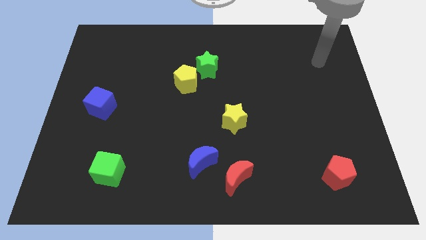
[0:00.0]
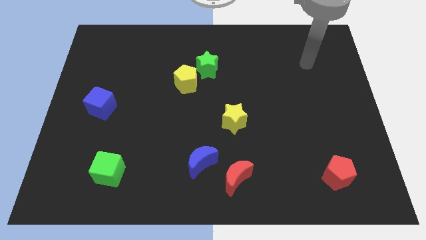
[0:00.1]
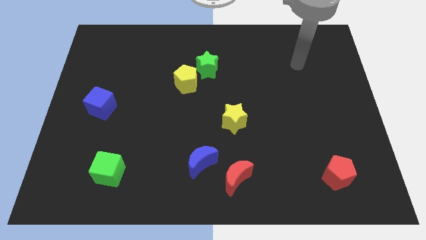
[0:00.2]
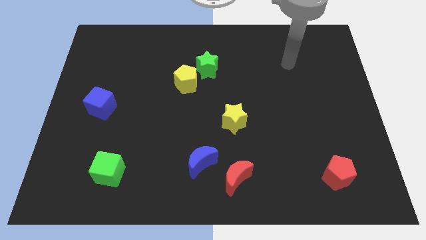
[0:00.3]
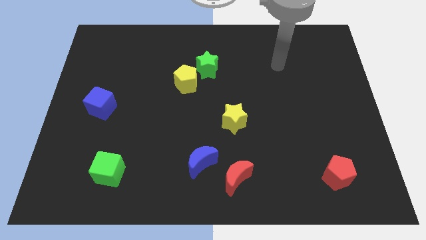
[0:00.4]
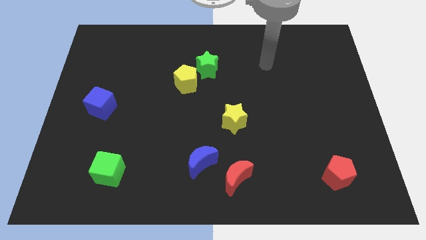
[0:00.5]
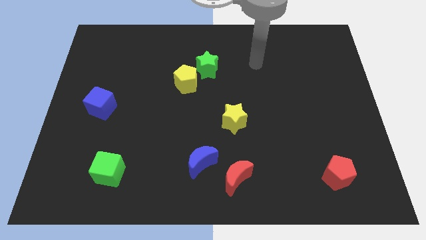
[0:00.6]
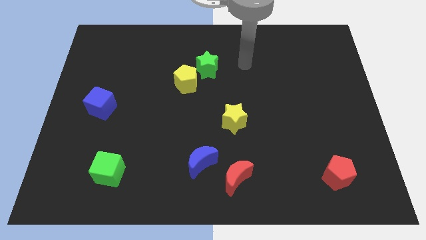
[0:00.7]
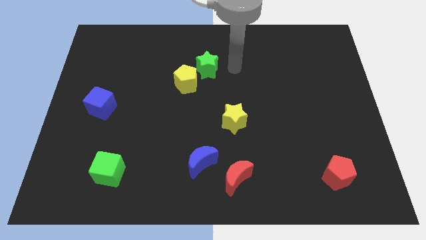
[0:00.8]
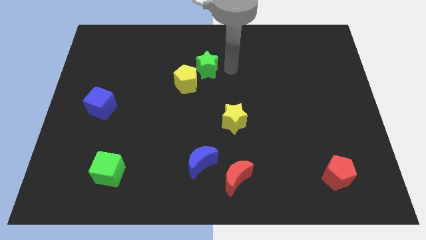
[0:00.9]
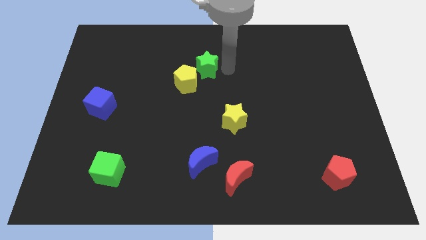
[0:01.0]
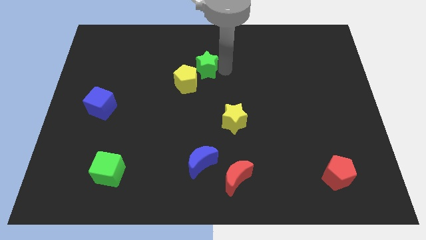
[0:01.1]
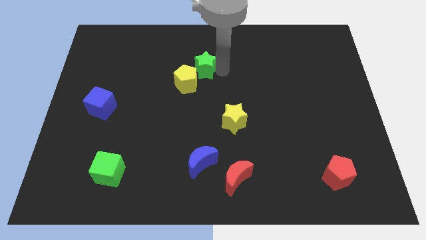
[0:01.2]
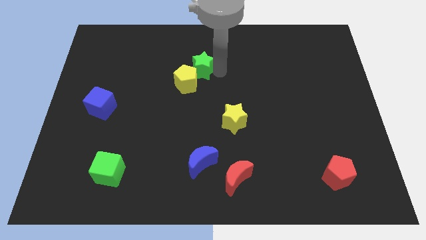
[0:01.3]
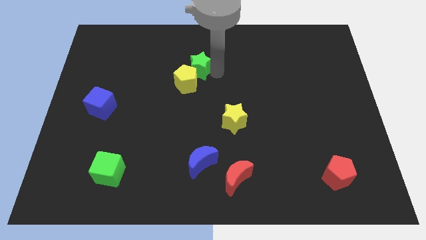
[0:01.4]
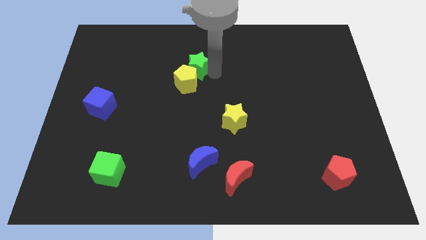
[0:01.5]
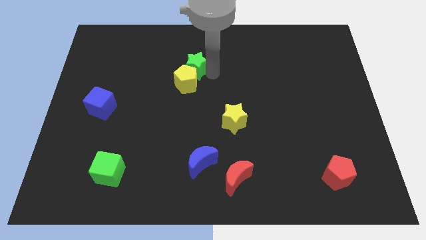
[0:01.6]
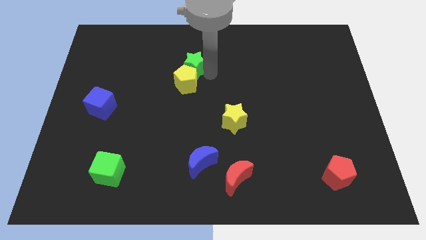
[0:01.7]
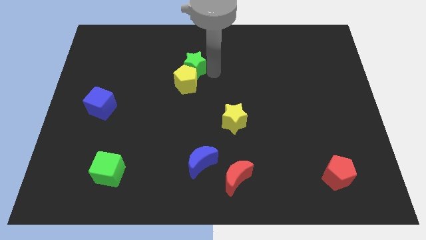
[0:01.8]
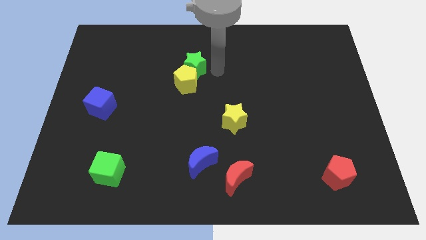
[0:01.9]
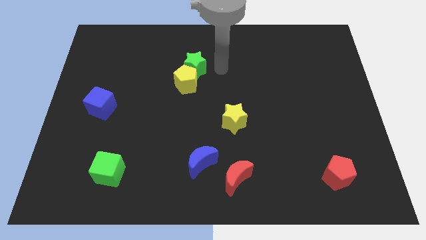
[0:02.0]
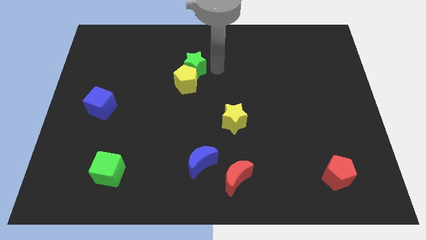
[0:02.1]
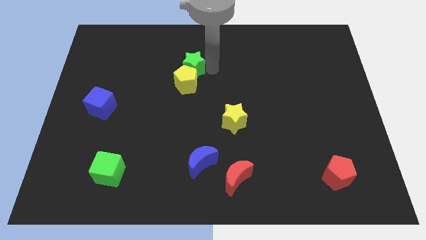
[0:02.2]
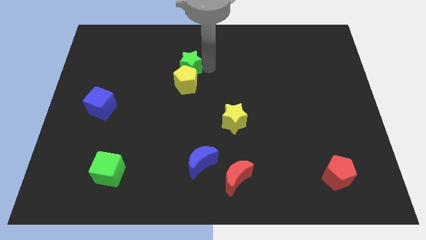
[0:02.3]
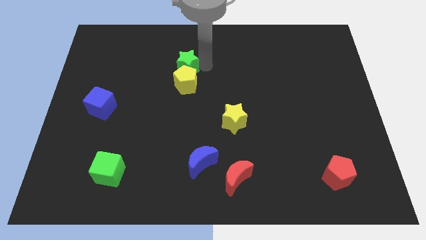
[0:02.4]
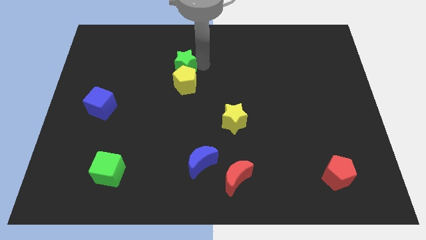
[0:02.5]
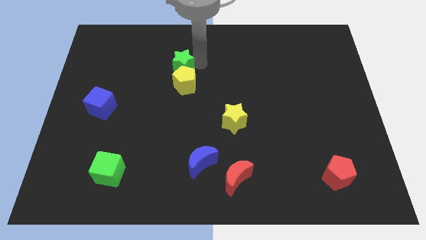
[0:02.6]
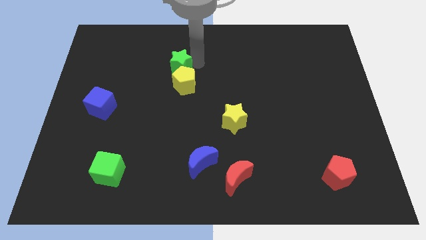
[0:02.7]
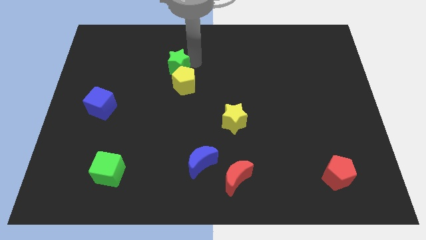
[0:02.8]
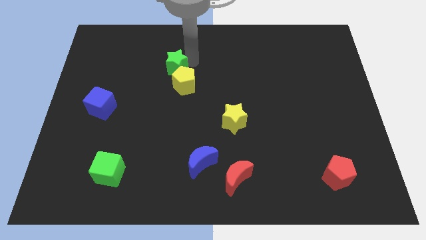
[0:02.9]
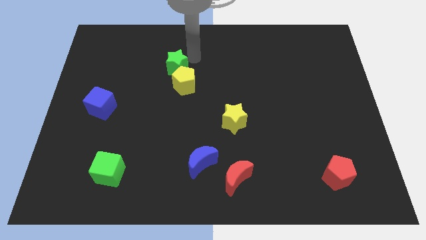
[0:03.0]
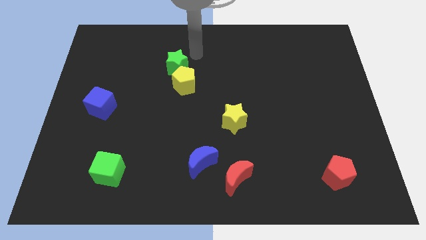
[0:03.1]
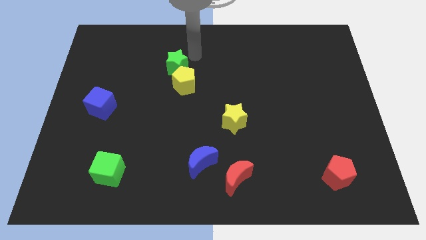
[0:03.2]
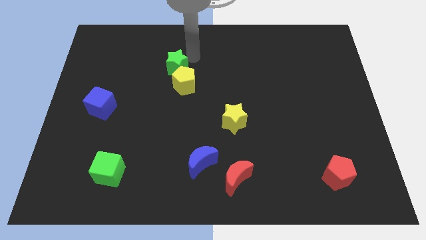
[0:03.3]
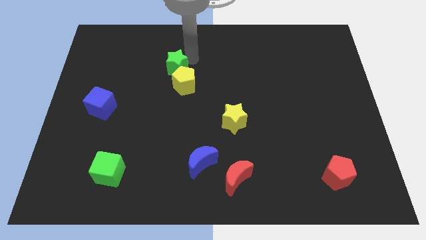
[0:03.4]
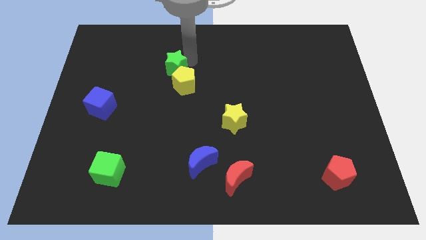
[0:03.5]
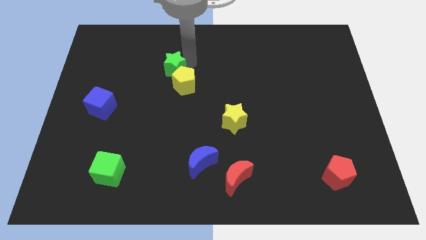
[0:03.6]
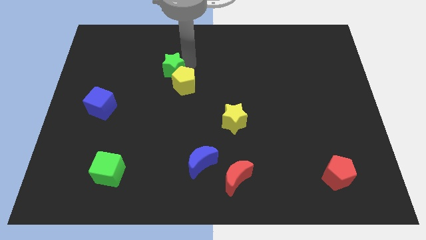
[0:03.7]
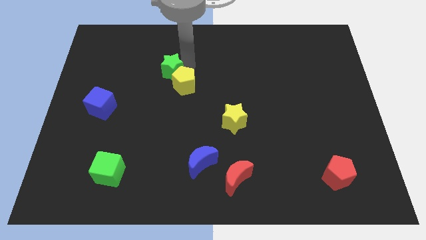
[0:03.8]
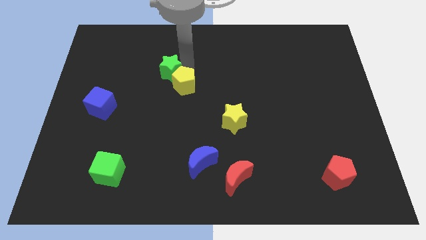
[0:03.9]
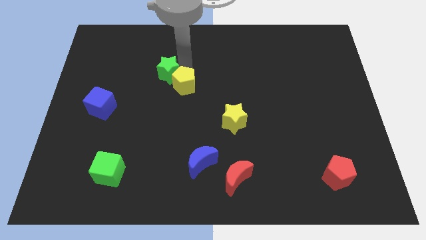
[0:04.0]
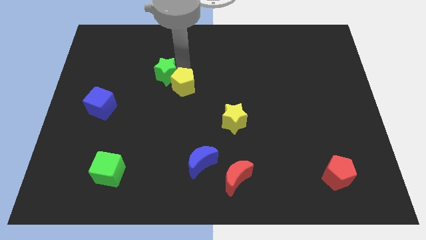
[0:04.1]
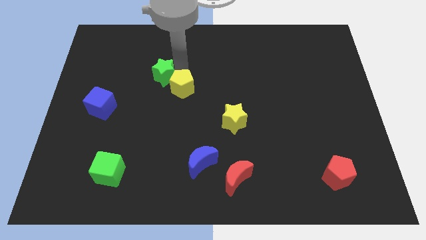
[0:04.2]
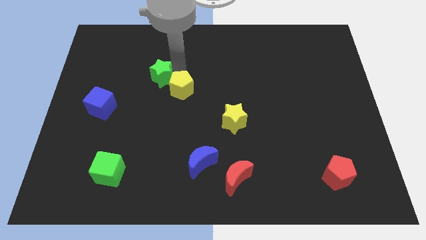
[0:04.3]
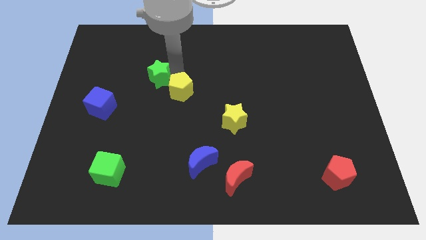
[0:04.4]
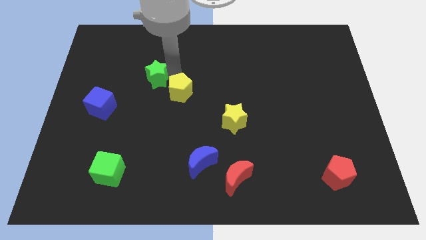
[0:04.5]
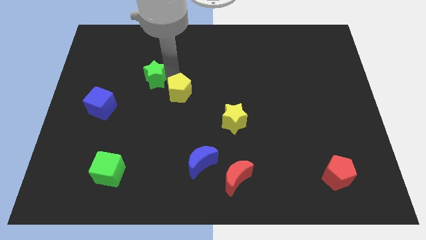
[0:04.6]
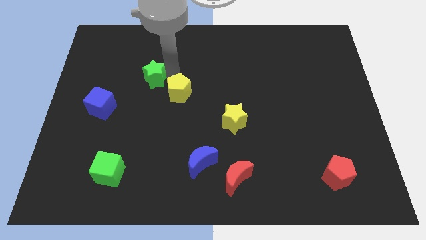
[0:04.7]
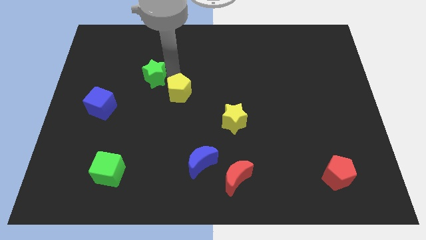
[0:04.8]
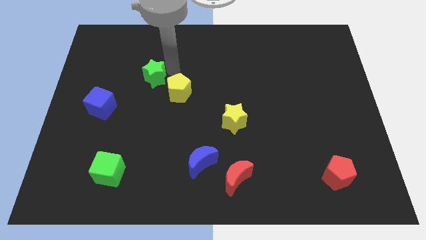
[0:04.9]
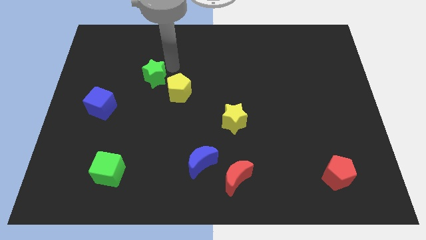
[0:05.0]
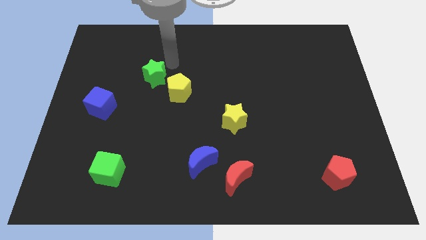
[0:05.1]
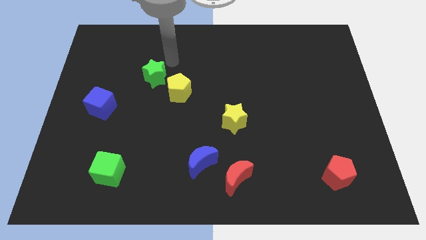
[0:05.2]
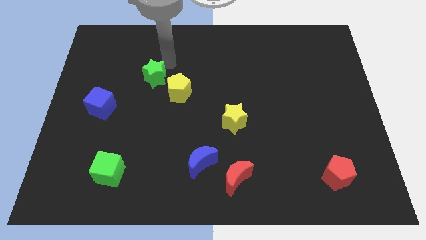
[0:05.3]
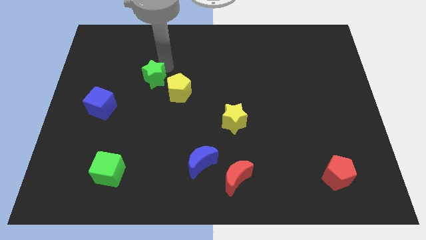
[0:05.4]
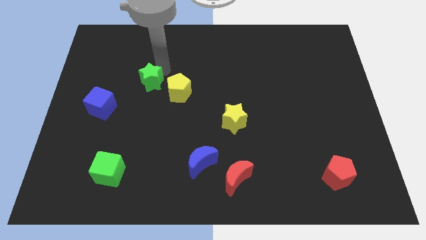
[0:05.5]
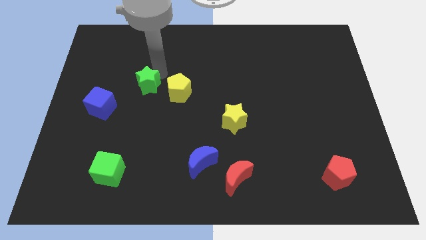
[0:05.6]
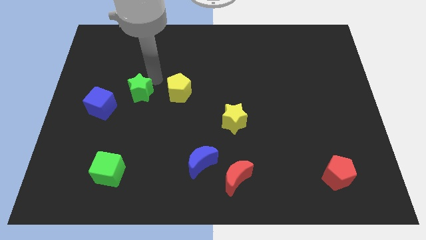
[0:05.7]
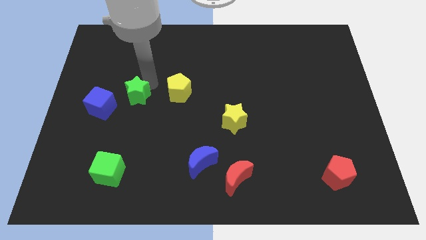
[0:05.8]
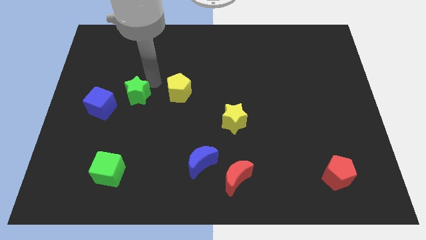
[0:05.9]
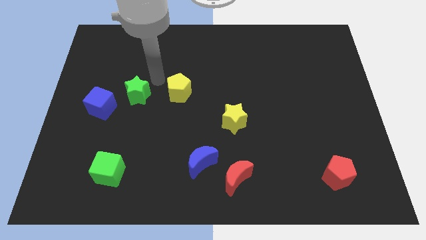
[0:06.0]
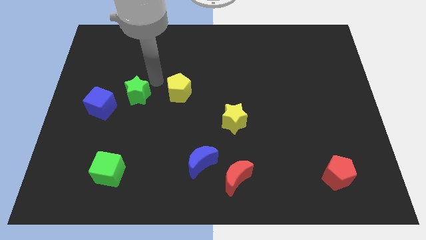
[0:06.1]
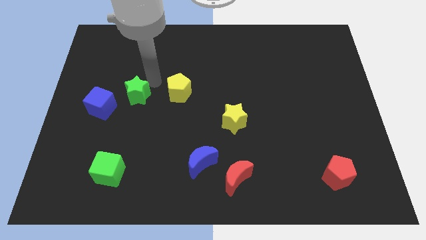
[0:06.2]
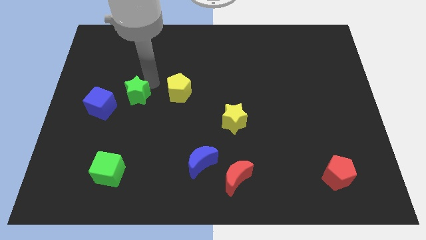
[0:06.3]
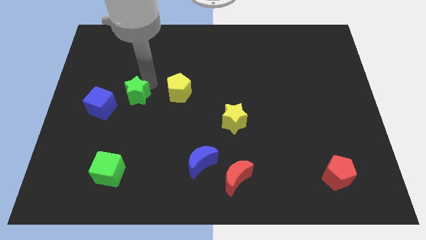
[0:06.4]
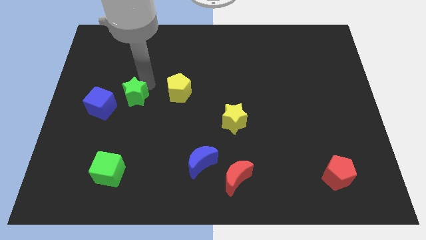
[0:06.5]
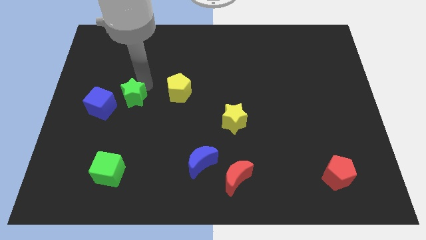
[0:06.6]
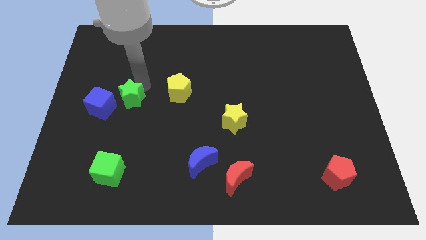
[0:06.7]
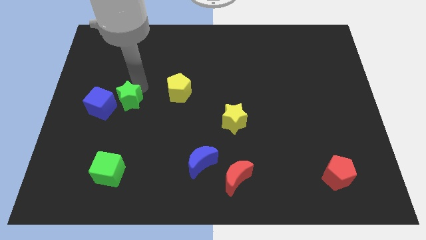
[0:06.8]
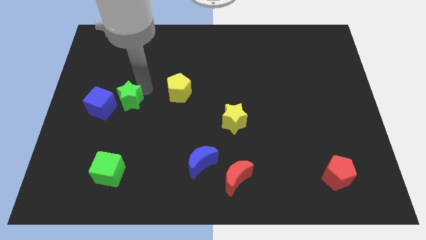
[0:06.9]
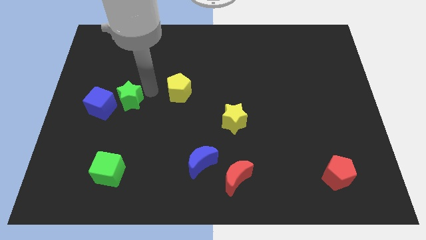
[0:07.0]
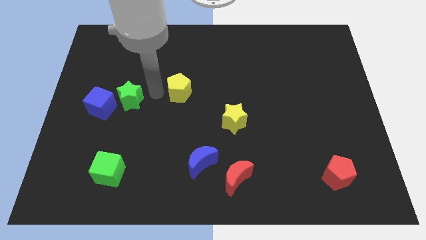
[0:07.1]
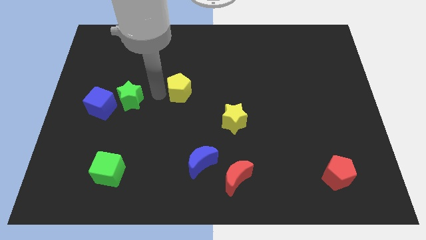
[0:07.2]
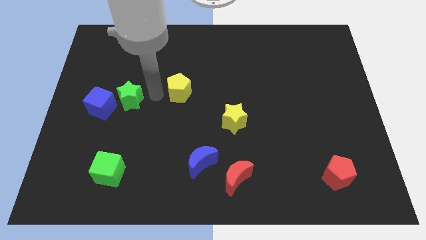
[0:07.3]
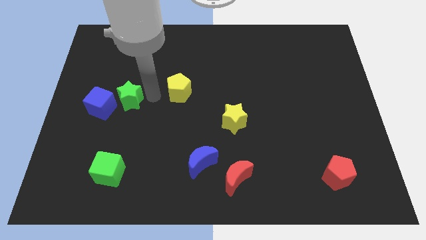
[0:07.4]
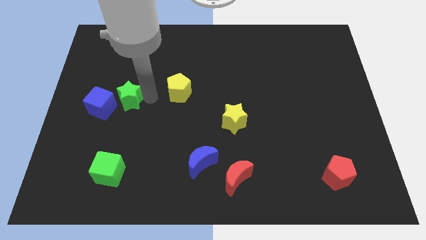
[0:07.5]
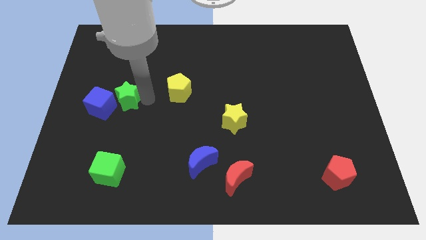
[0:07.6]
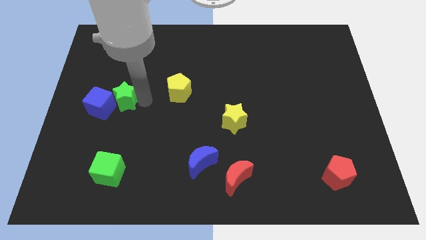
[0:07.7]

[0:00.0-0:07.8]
move the green star to the blue cube
